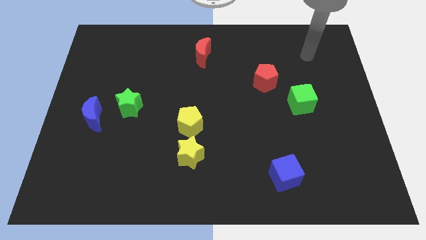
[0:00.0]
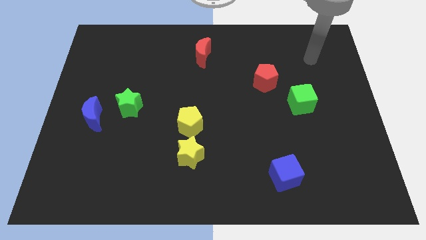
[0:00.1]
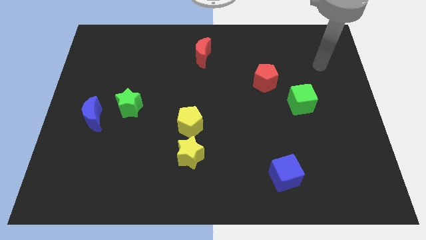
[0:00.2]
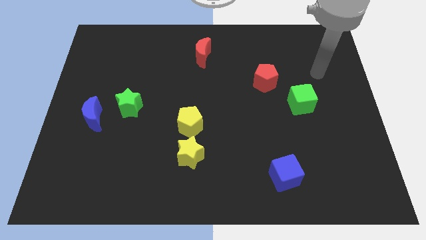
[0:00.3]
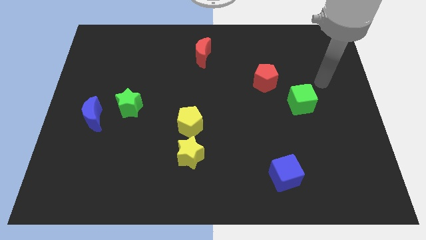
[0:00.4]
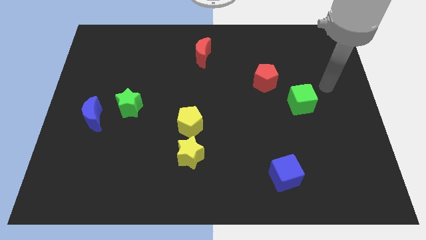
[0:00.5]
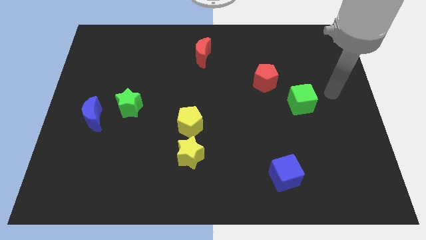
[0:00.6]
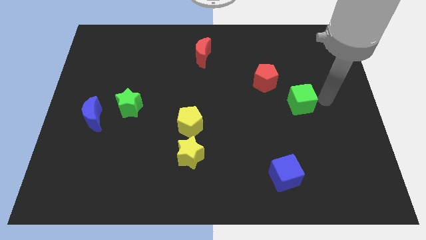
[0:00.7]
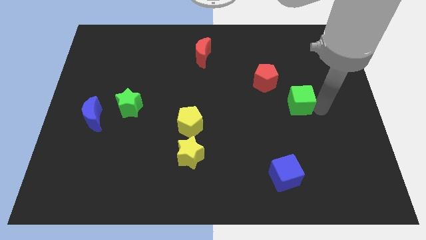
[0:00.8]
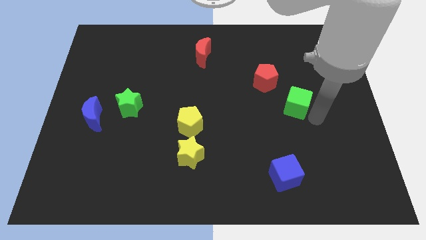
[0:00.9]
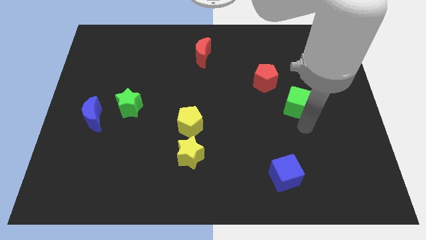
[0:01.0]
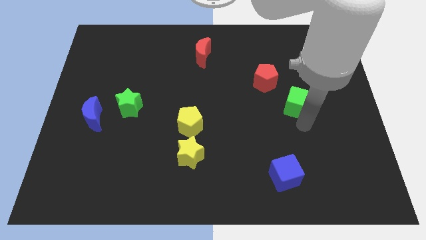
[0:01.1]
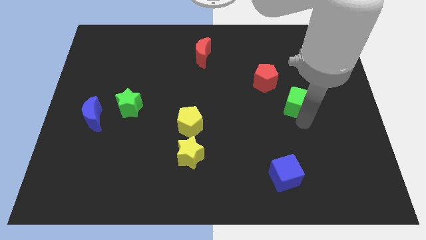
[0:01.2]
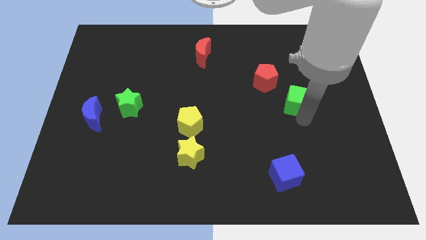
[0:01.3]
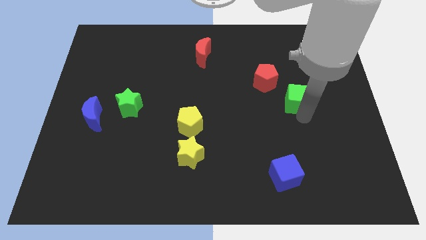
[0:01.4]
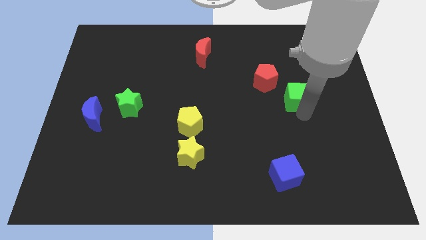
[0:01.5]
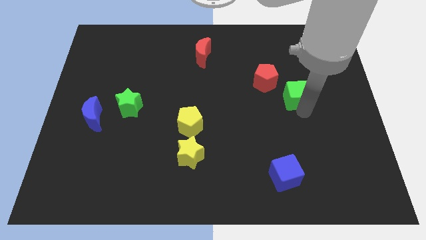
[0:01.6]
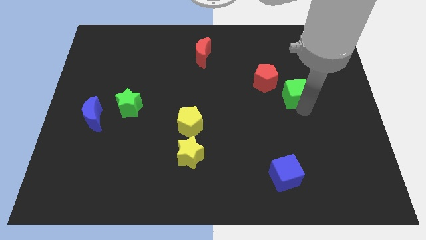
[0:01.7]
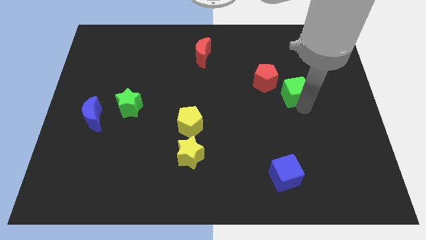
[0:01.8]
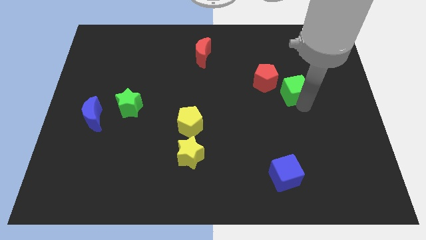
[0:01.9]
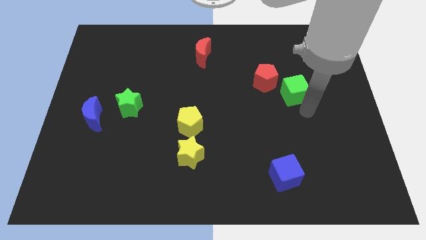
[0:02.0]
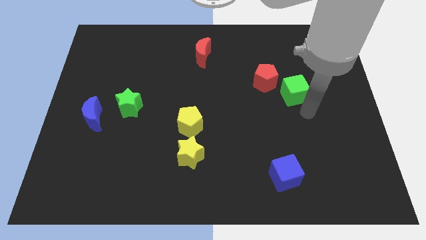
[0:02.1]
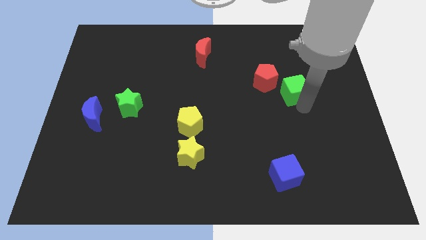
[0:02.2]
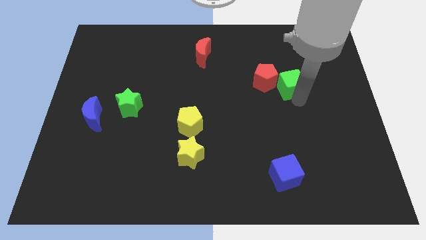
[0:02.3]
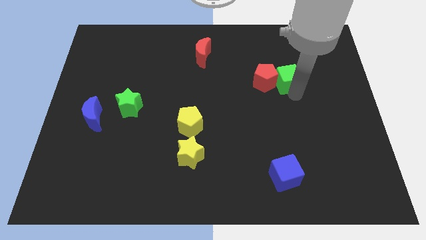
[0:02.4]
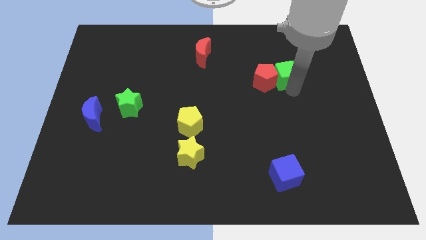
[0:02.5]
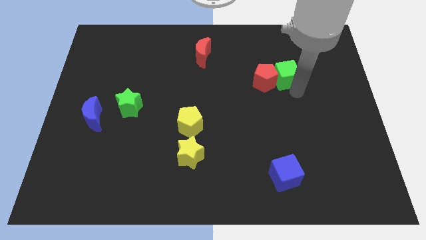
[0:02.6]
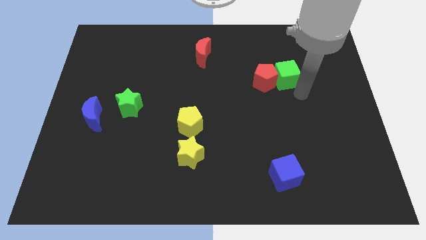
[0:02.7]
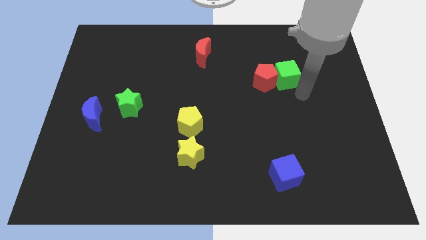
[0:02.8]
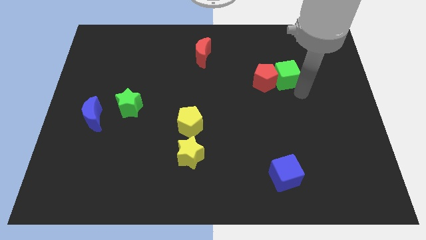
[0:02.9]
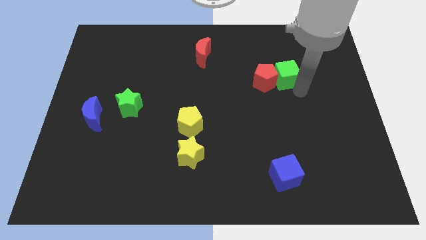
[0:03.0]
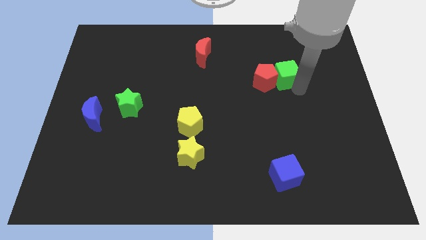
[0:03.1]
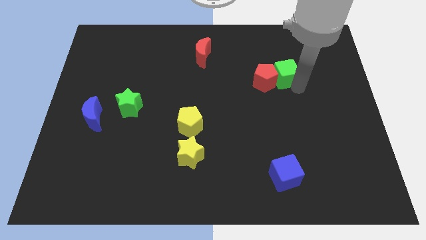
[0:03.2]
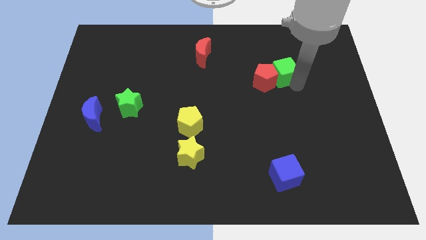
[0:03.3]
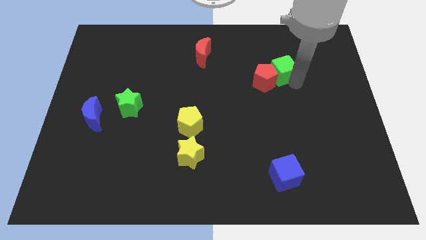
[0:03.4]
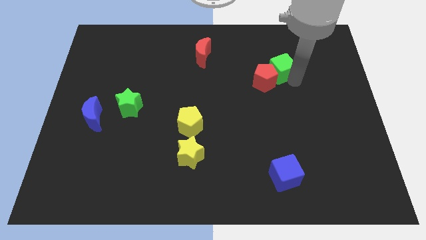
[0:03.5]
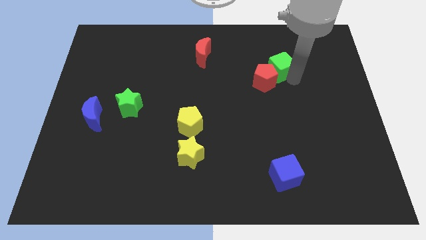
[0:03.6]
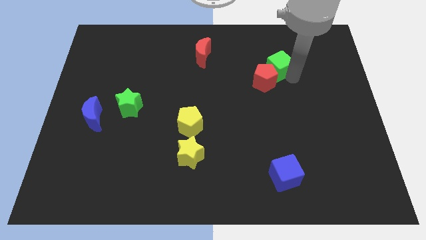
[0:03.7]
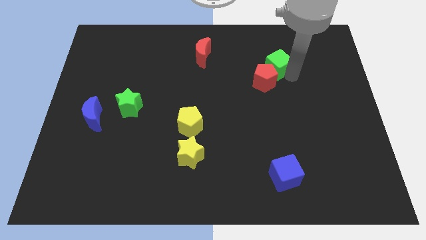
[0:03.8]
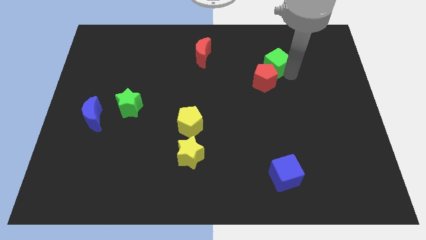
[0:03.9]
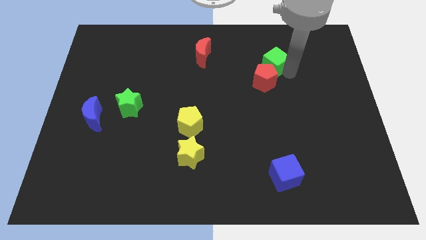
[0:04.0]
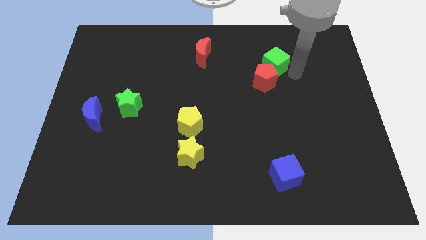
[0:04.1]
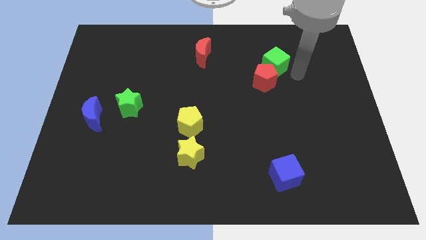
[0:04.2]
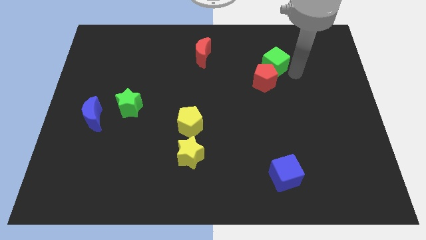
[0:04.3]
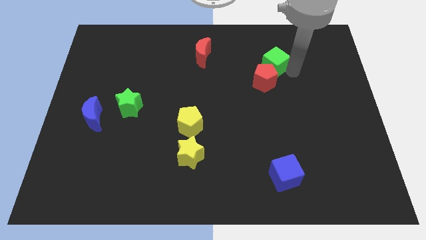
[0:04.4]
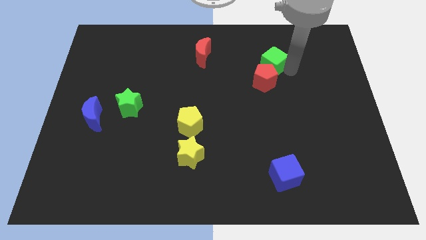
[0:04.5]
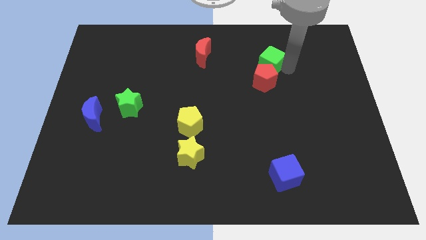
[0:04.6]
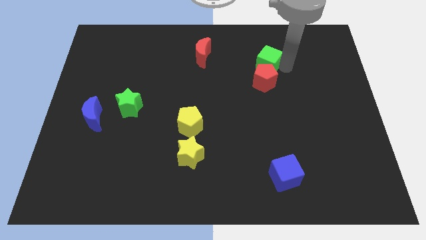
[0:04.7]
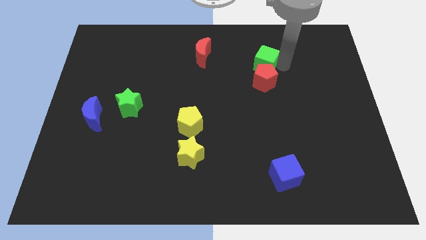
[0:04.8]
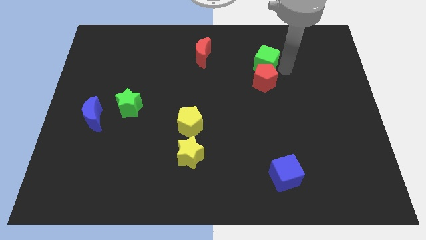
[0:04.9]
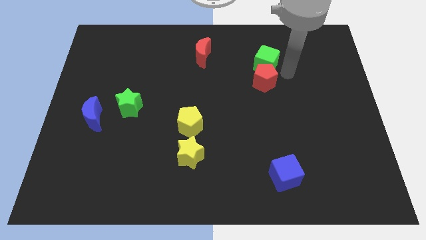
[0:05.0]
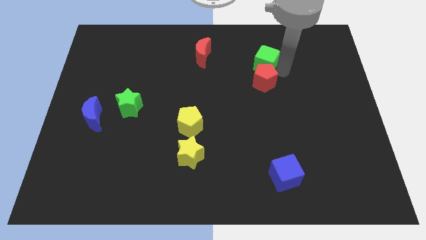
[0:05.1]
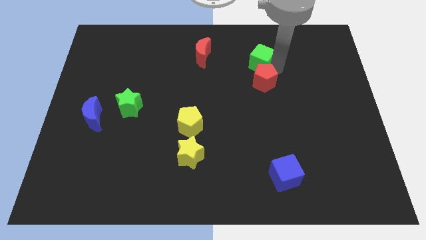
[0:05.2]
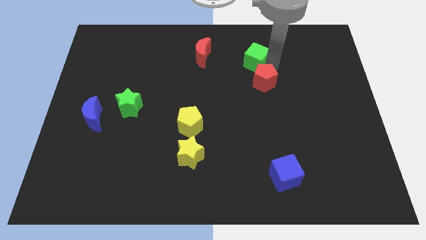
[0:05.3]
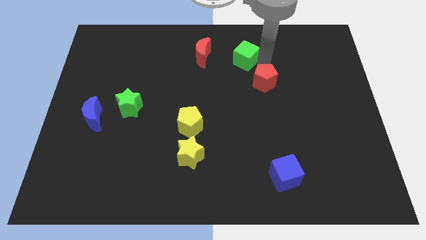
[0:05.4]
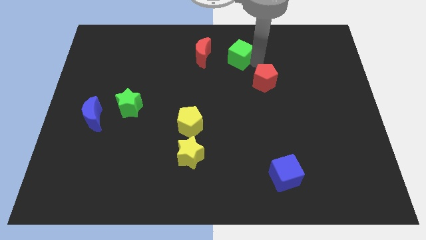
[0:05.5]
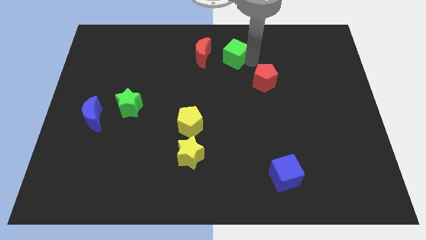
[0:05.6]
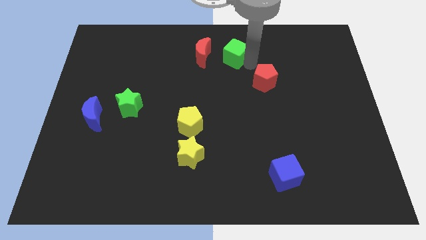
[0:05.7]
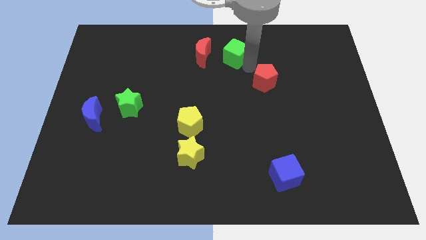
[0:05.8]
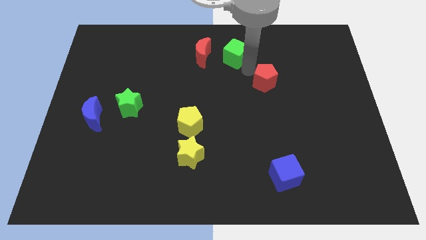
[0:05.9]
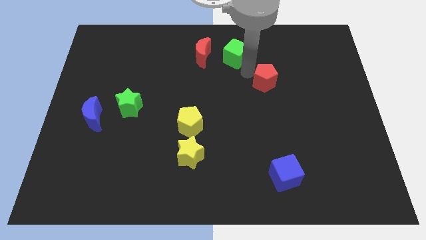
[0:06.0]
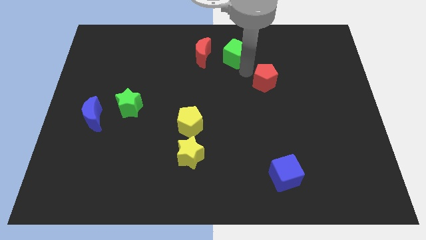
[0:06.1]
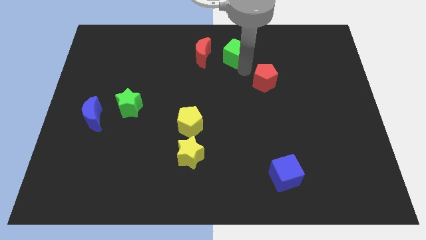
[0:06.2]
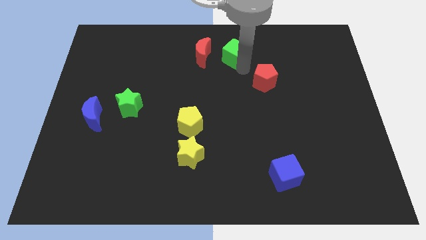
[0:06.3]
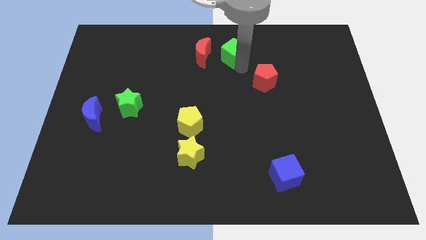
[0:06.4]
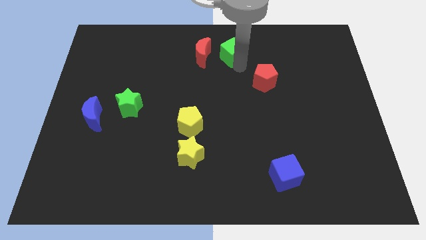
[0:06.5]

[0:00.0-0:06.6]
put the green cube to the towards your base

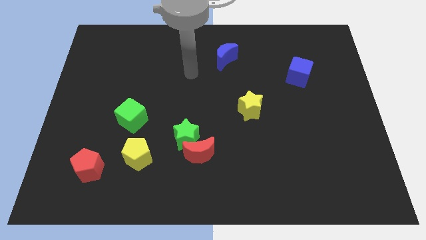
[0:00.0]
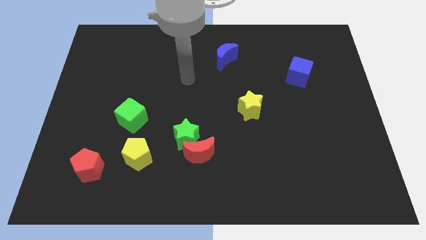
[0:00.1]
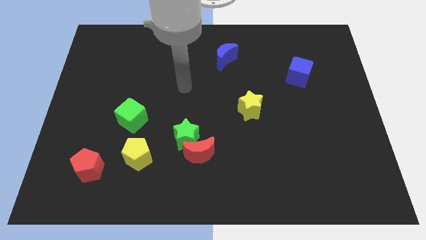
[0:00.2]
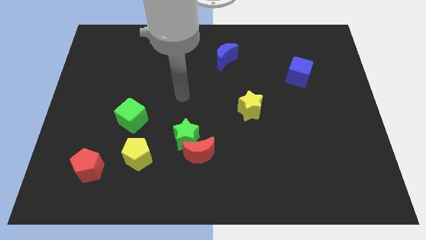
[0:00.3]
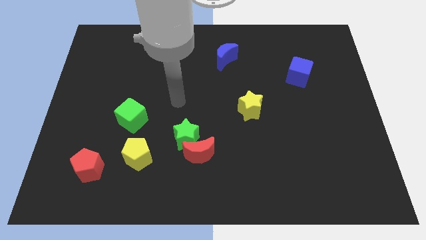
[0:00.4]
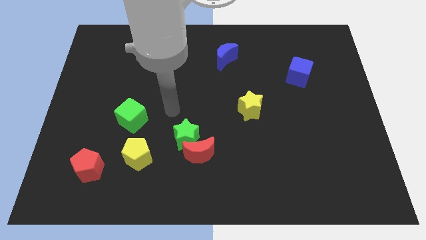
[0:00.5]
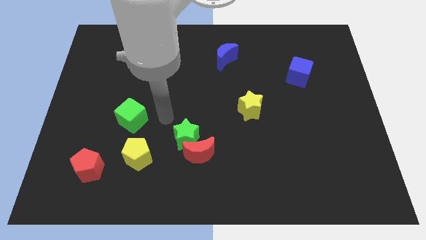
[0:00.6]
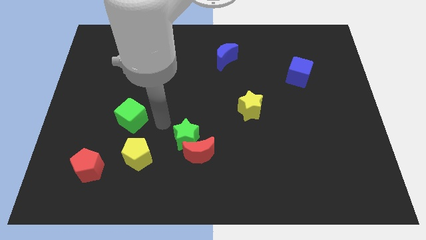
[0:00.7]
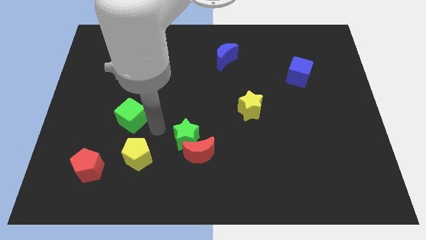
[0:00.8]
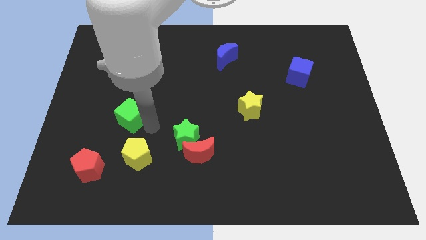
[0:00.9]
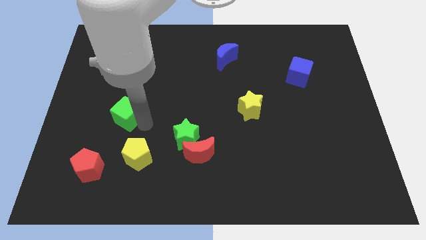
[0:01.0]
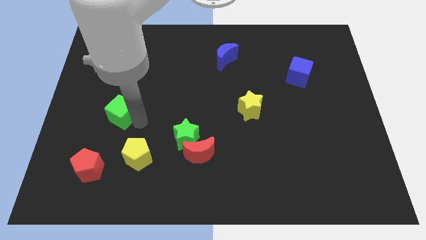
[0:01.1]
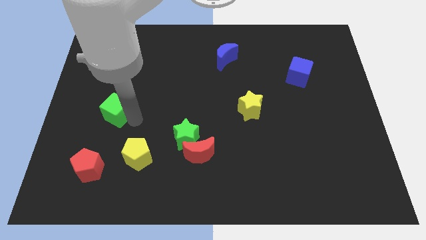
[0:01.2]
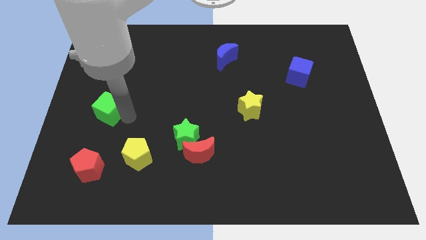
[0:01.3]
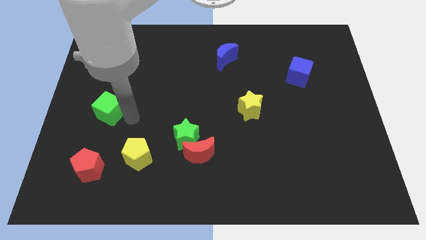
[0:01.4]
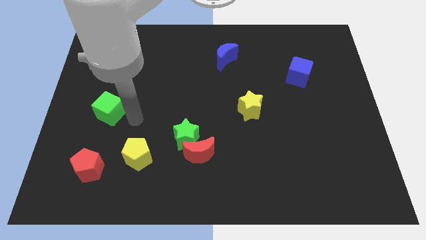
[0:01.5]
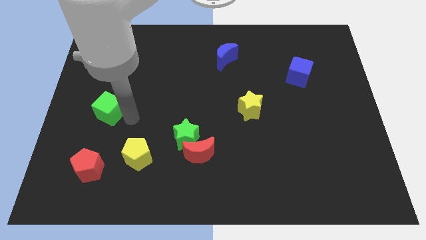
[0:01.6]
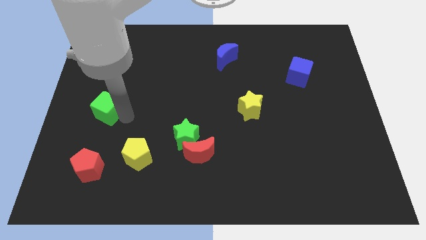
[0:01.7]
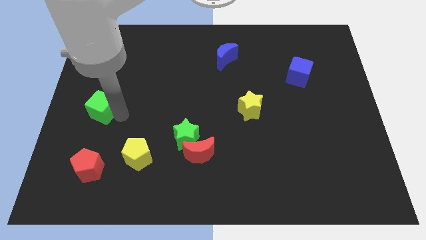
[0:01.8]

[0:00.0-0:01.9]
push the green cube to the left side of the board
